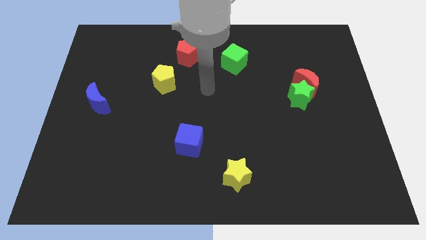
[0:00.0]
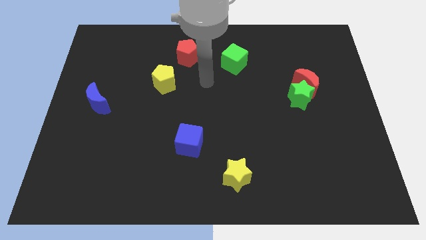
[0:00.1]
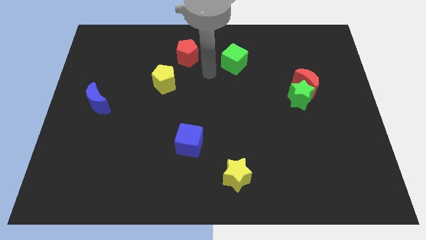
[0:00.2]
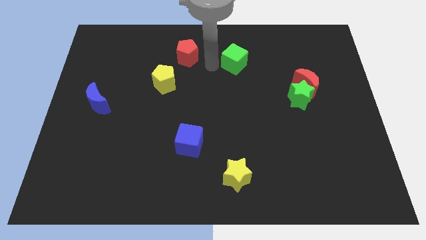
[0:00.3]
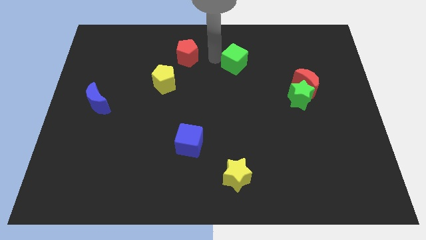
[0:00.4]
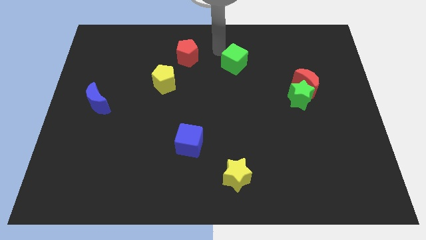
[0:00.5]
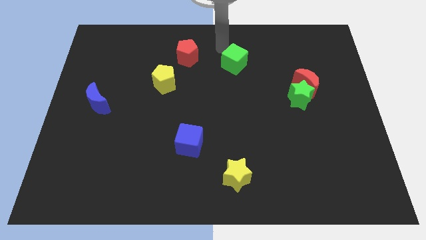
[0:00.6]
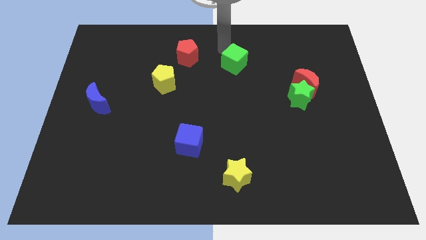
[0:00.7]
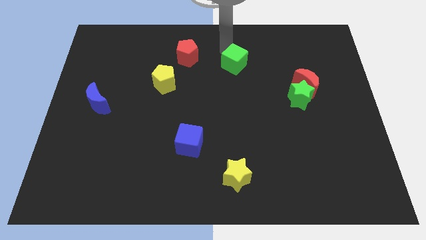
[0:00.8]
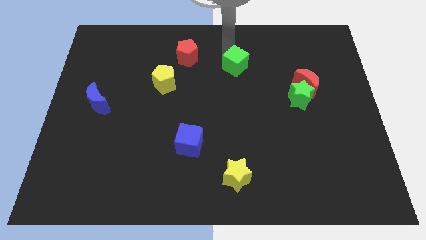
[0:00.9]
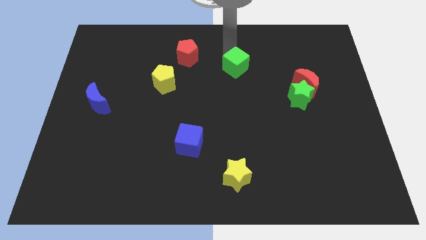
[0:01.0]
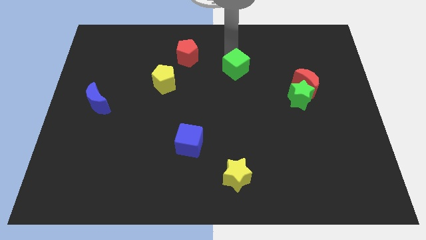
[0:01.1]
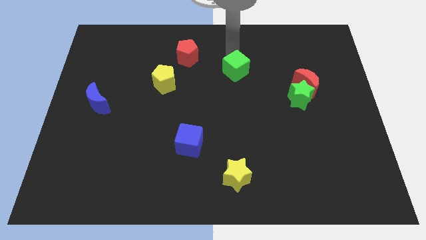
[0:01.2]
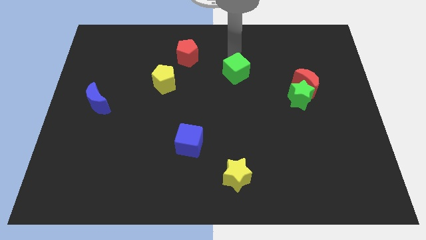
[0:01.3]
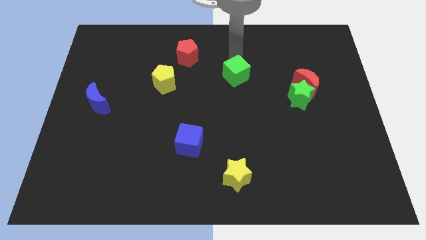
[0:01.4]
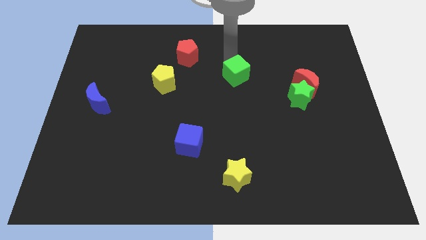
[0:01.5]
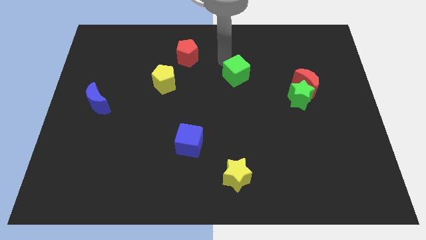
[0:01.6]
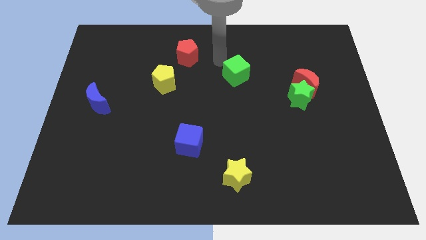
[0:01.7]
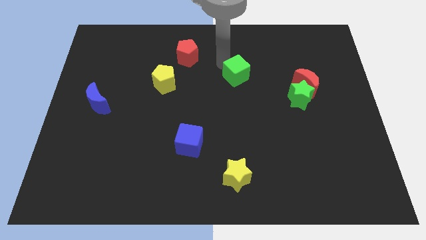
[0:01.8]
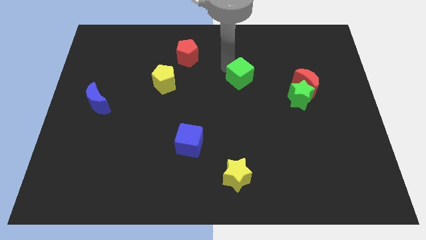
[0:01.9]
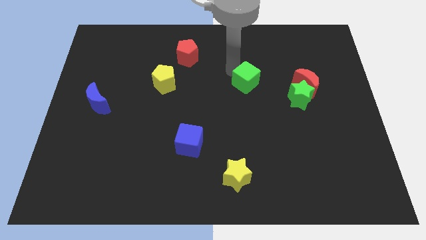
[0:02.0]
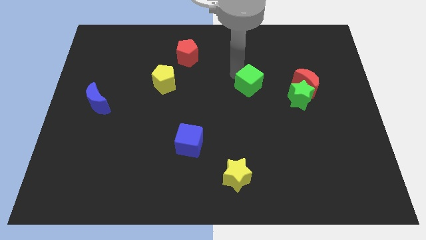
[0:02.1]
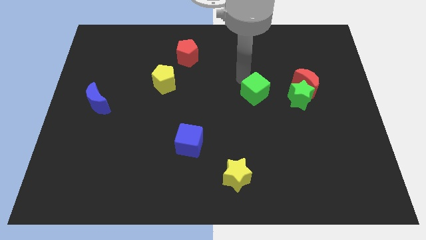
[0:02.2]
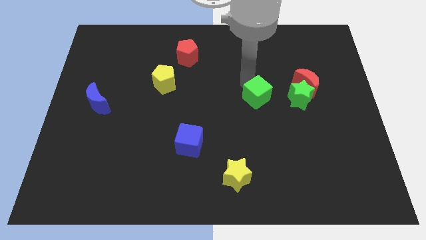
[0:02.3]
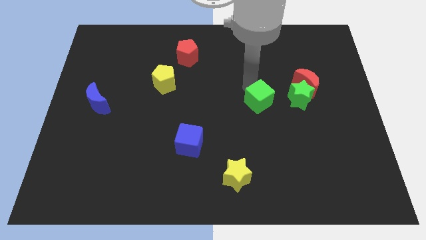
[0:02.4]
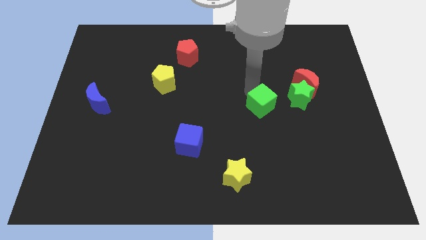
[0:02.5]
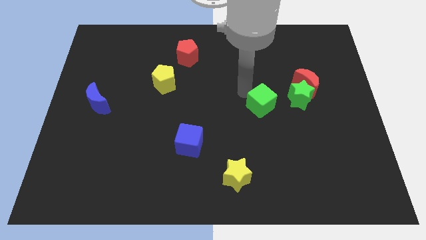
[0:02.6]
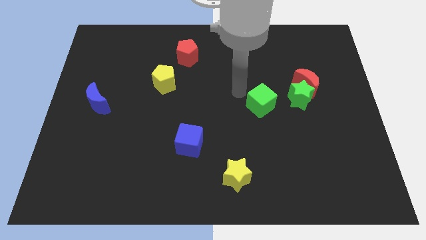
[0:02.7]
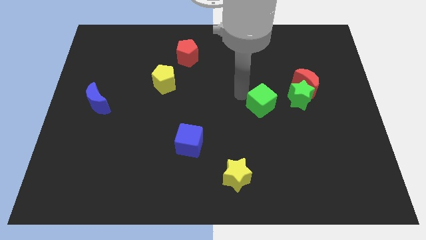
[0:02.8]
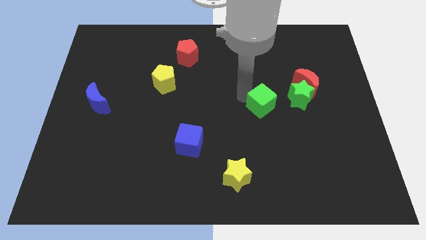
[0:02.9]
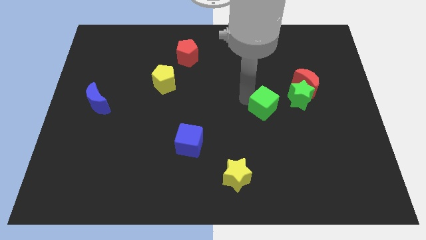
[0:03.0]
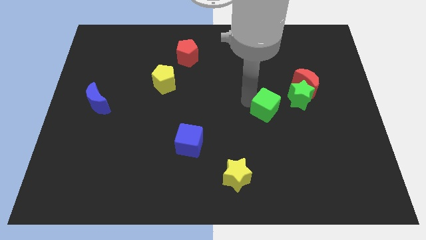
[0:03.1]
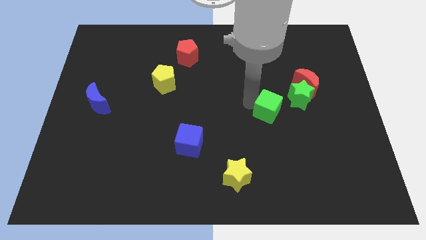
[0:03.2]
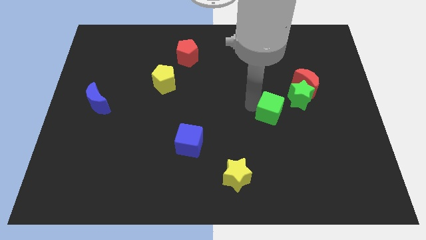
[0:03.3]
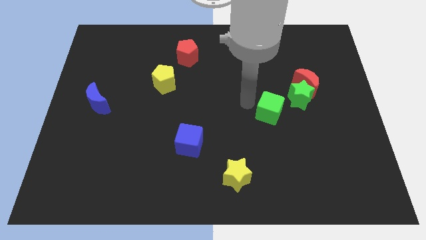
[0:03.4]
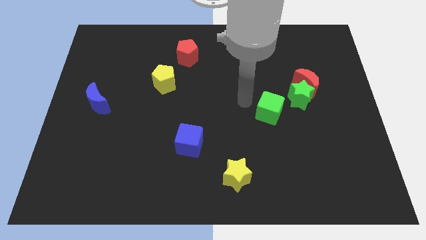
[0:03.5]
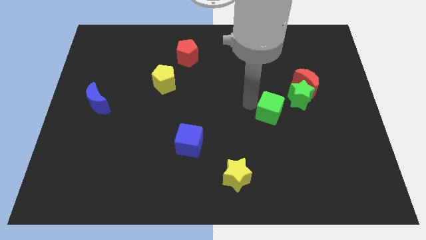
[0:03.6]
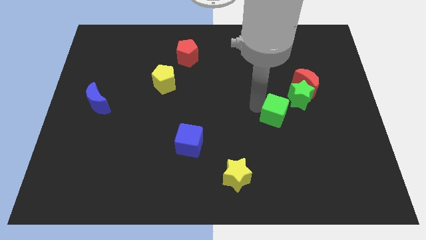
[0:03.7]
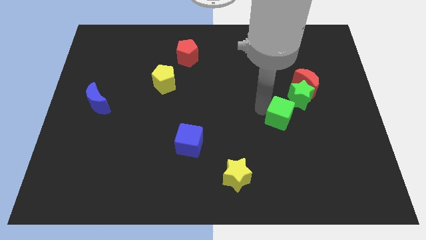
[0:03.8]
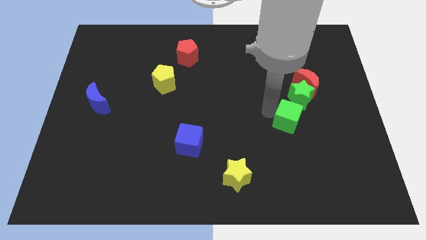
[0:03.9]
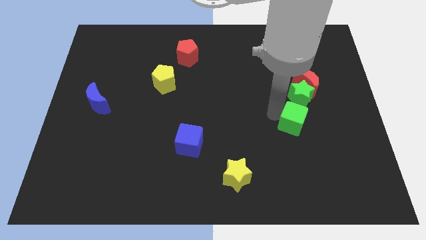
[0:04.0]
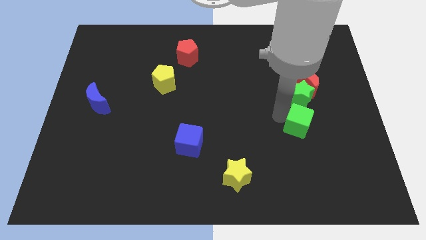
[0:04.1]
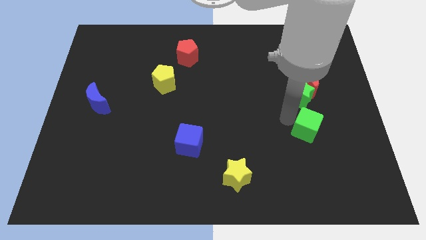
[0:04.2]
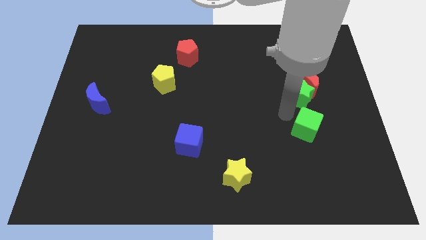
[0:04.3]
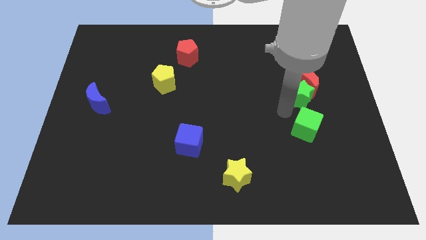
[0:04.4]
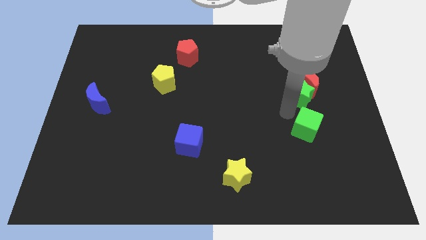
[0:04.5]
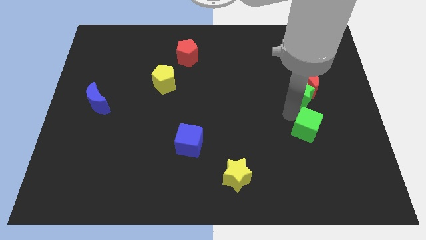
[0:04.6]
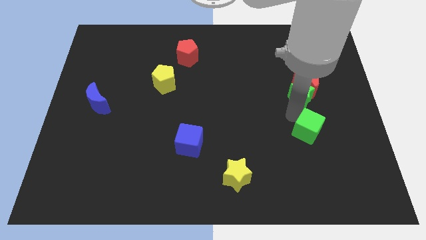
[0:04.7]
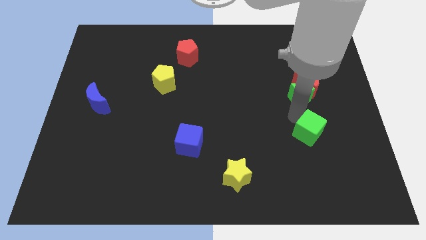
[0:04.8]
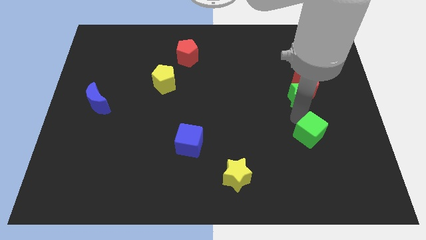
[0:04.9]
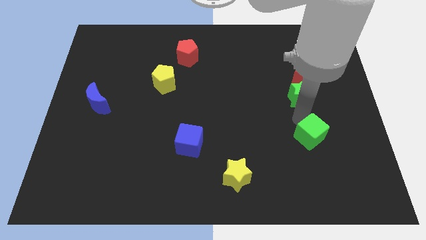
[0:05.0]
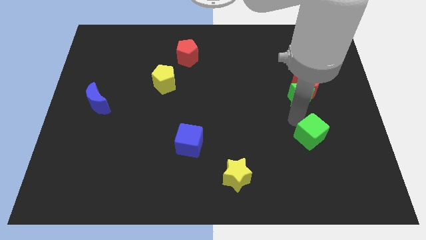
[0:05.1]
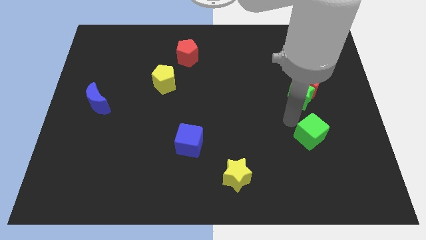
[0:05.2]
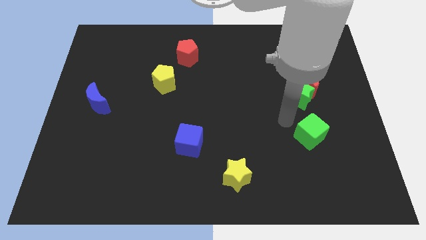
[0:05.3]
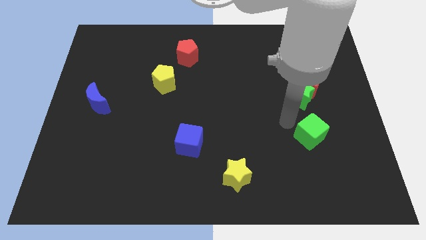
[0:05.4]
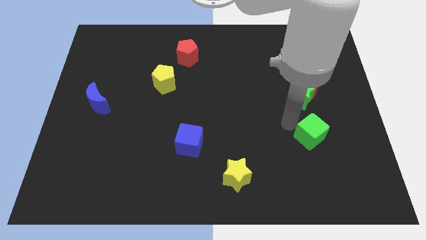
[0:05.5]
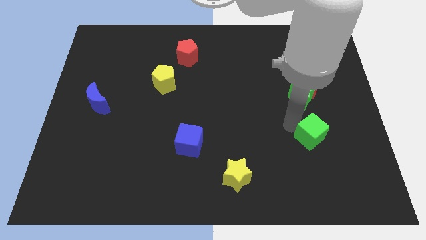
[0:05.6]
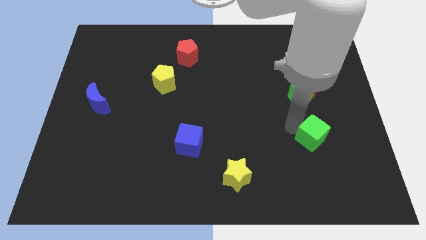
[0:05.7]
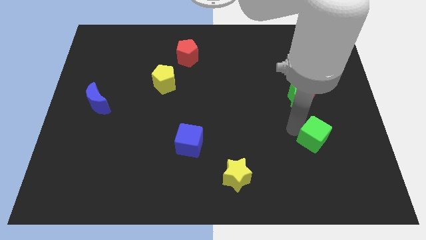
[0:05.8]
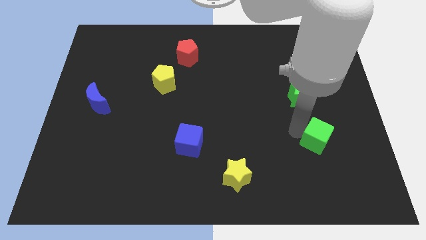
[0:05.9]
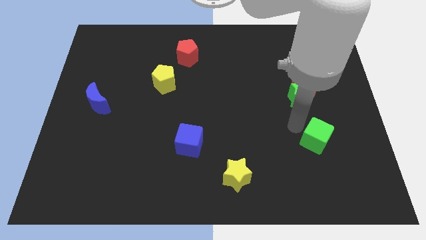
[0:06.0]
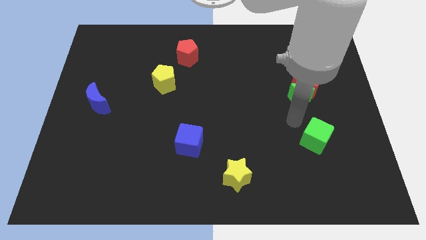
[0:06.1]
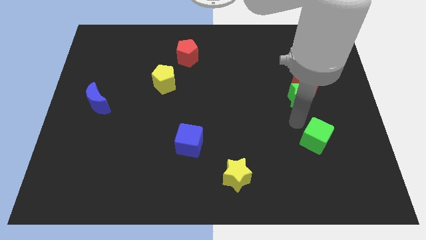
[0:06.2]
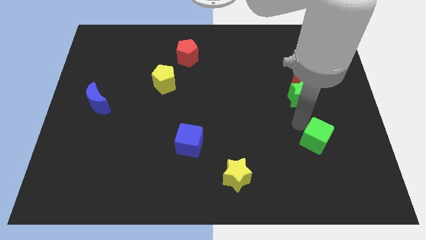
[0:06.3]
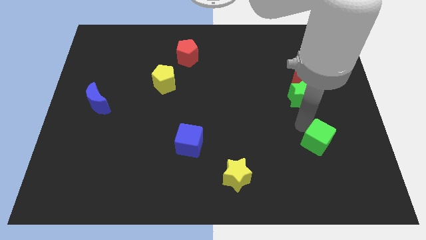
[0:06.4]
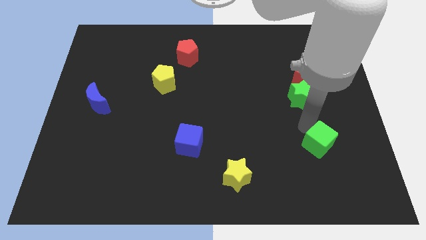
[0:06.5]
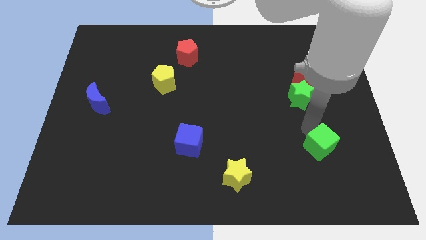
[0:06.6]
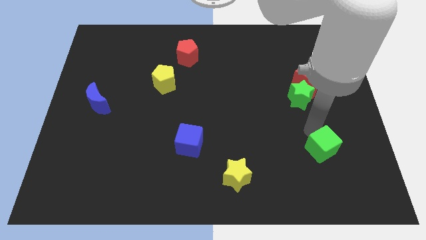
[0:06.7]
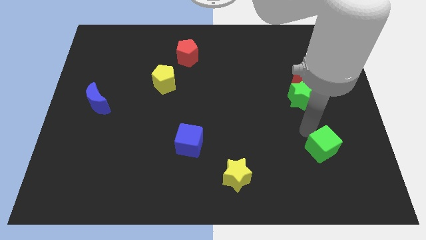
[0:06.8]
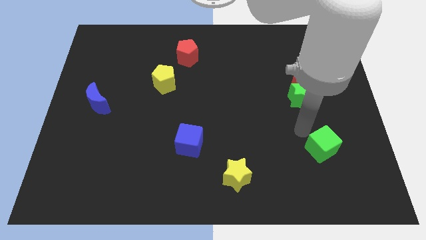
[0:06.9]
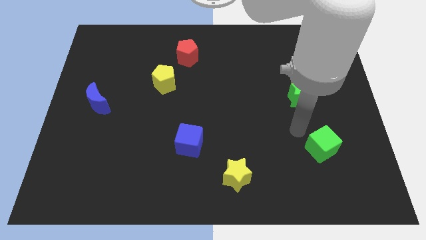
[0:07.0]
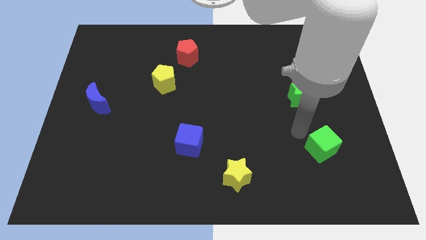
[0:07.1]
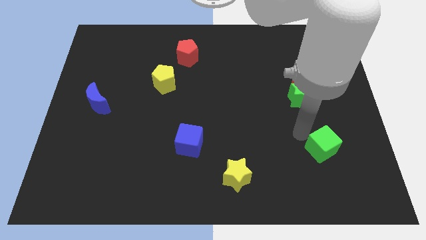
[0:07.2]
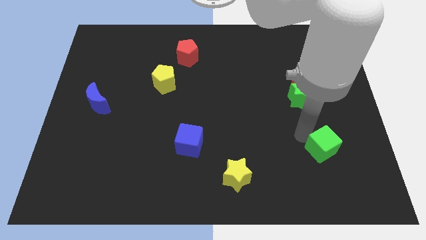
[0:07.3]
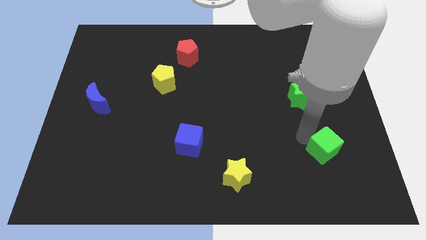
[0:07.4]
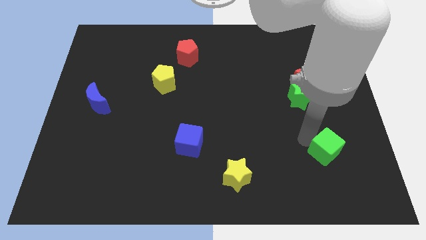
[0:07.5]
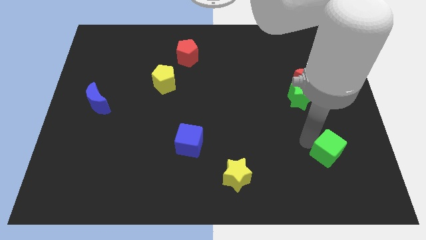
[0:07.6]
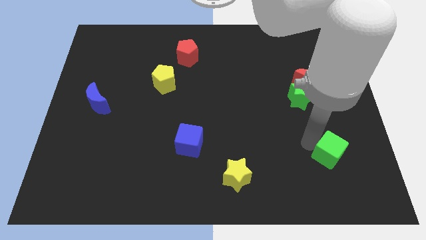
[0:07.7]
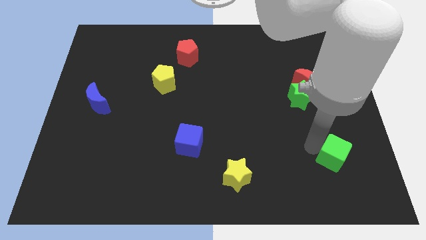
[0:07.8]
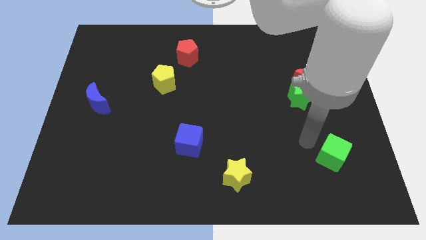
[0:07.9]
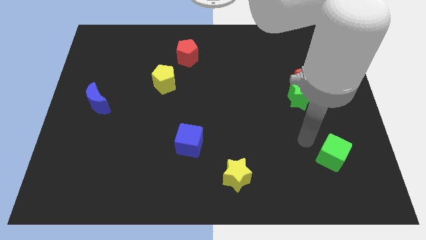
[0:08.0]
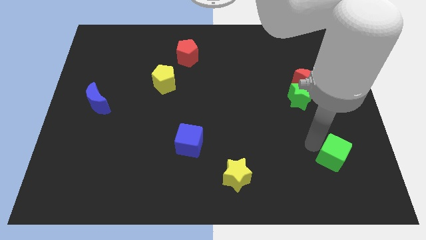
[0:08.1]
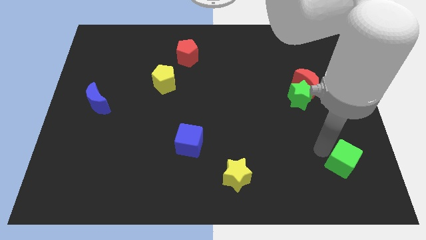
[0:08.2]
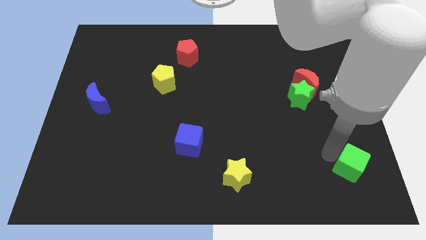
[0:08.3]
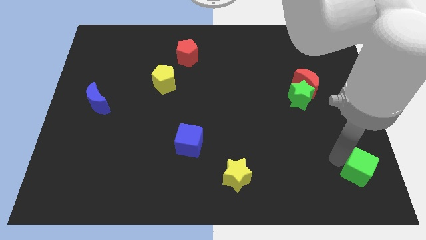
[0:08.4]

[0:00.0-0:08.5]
push the green cube to the bottom right
